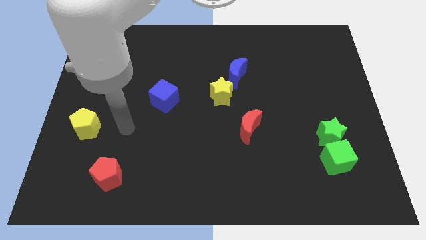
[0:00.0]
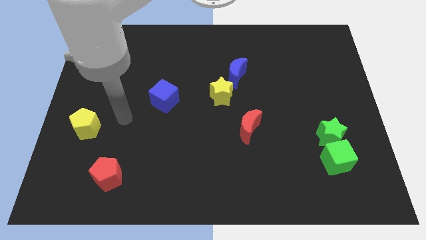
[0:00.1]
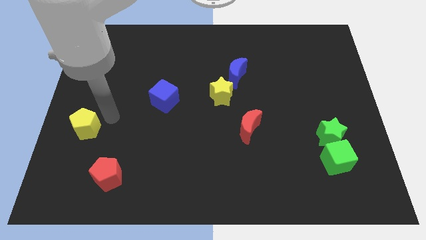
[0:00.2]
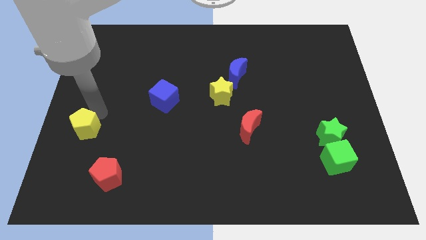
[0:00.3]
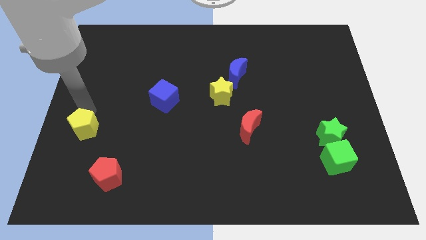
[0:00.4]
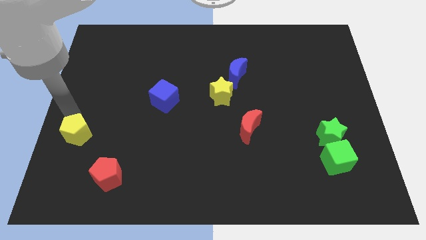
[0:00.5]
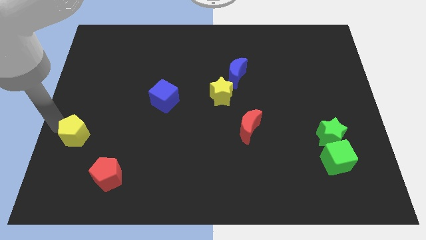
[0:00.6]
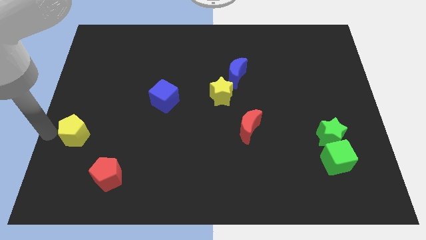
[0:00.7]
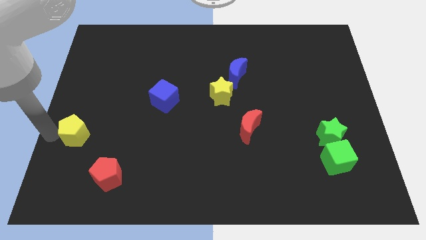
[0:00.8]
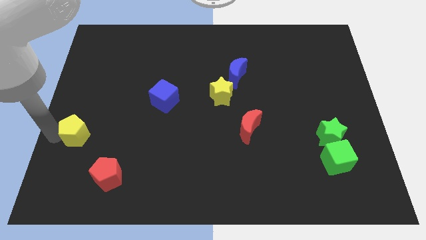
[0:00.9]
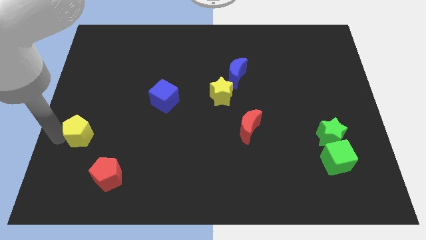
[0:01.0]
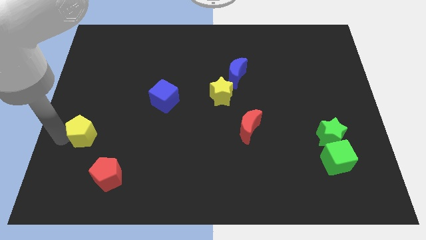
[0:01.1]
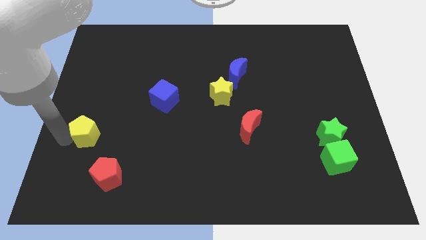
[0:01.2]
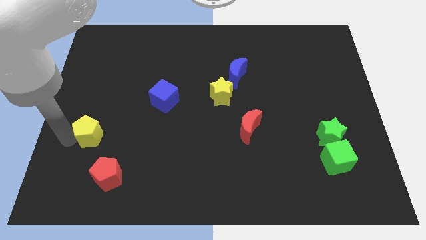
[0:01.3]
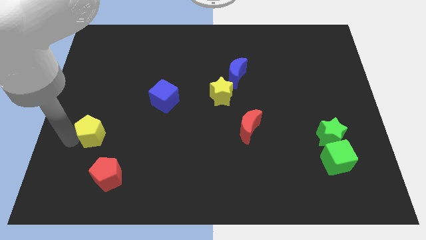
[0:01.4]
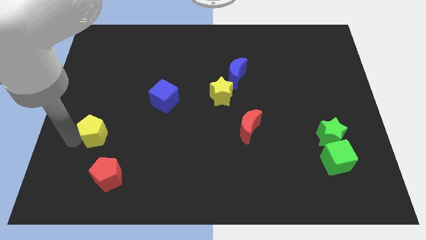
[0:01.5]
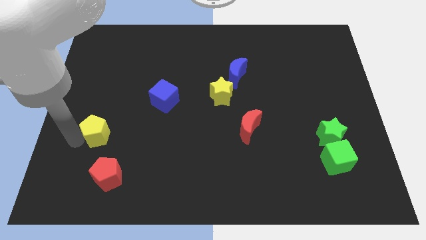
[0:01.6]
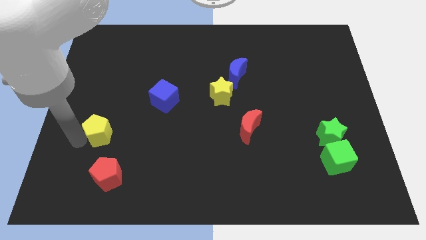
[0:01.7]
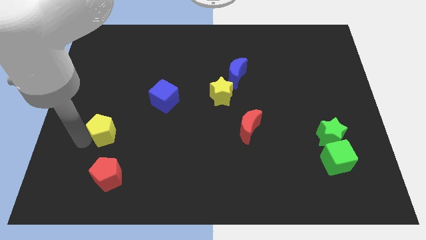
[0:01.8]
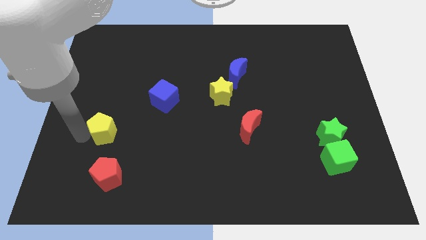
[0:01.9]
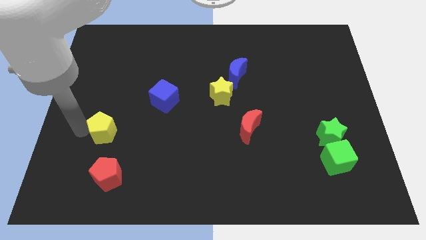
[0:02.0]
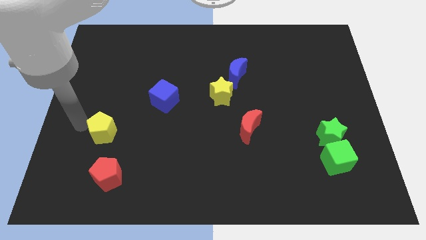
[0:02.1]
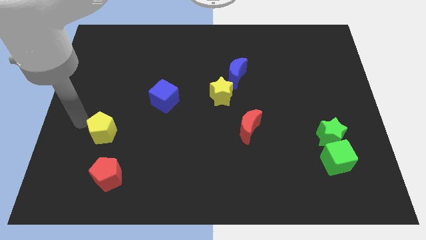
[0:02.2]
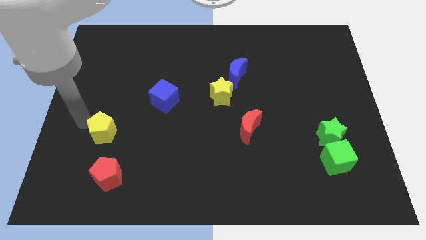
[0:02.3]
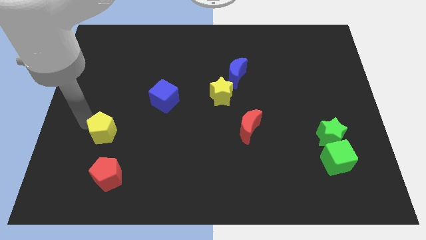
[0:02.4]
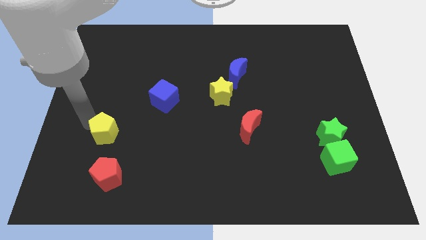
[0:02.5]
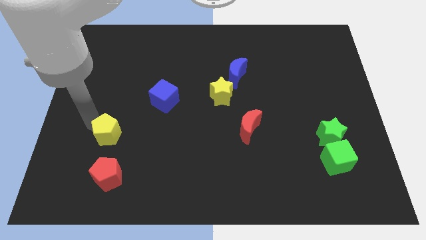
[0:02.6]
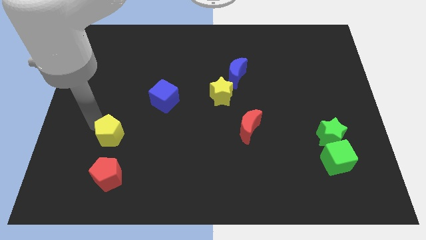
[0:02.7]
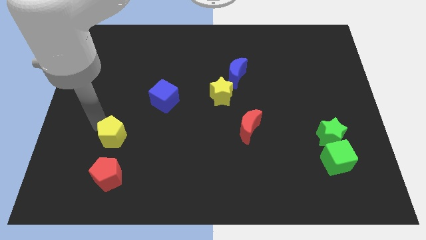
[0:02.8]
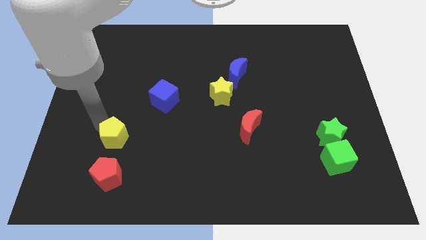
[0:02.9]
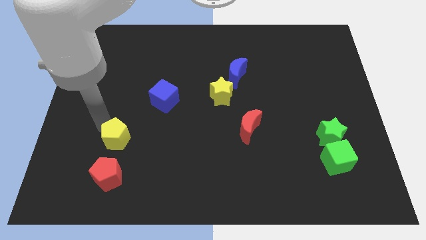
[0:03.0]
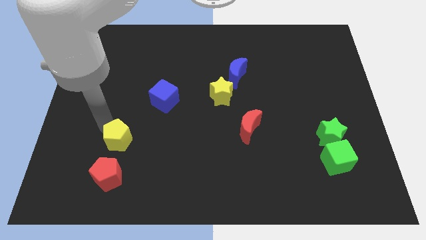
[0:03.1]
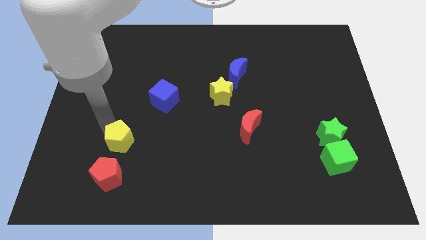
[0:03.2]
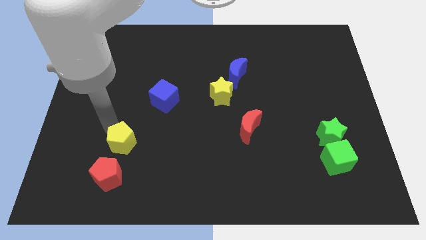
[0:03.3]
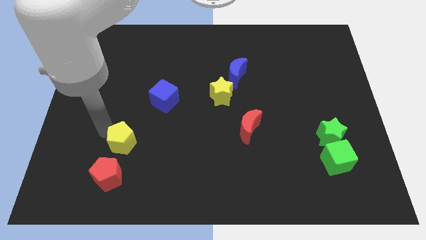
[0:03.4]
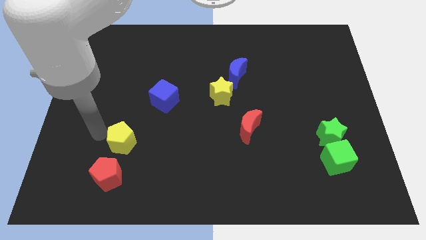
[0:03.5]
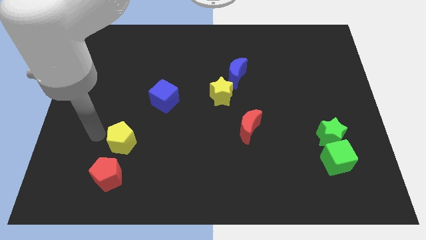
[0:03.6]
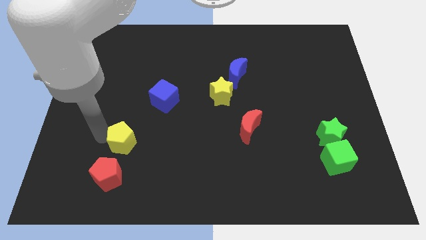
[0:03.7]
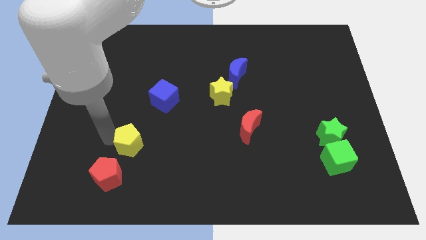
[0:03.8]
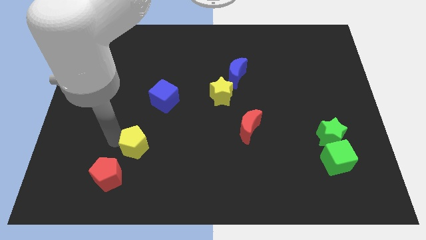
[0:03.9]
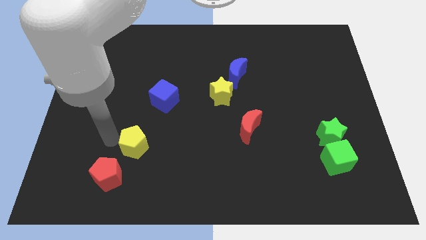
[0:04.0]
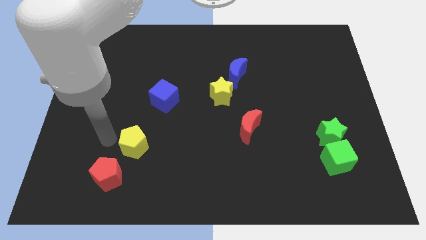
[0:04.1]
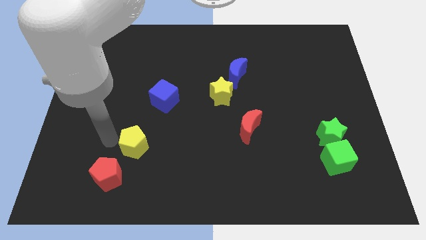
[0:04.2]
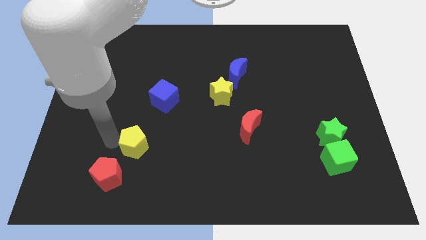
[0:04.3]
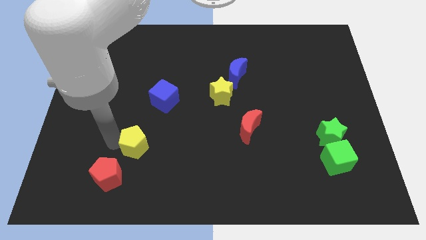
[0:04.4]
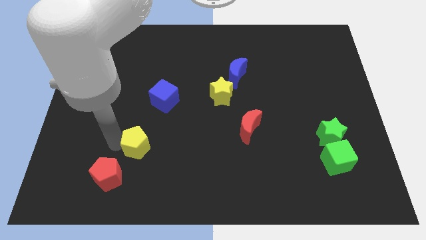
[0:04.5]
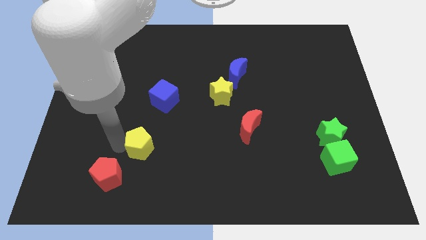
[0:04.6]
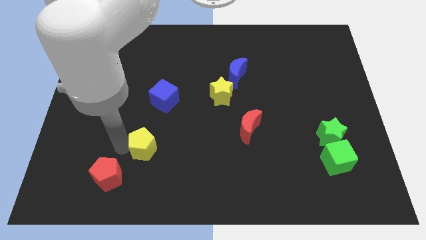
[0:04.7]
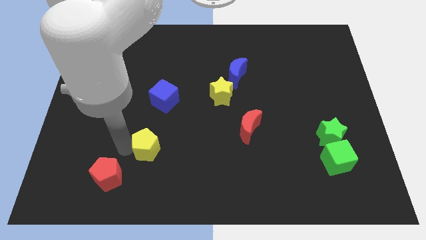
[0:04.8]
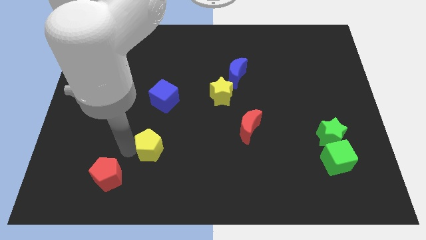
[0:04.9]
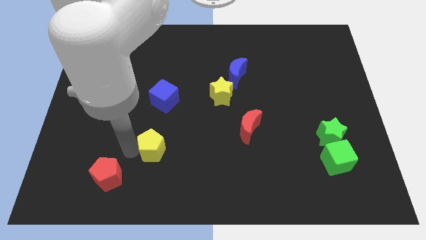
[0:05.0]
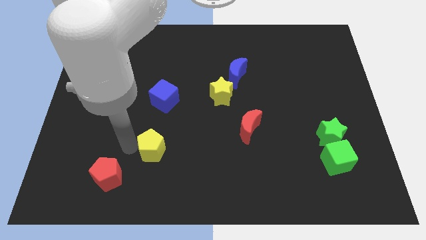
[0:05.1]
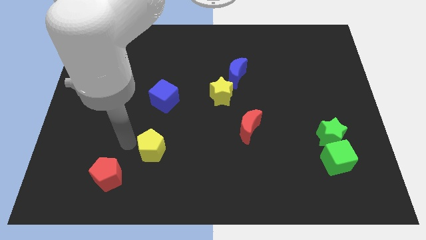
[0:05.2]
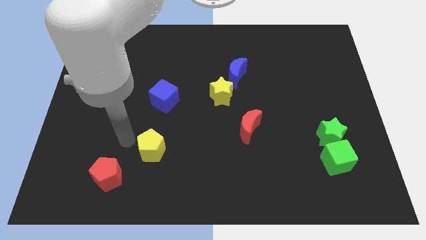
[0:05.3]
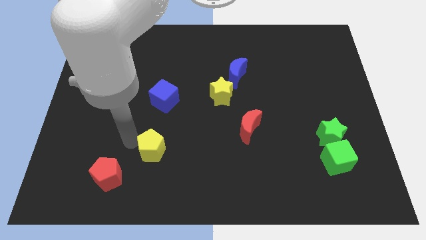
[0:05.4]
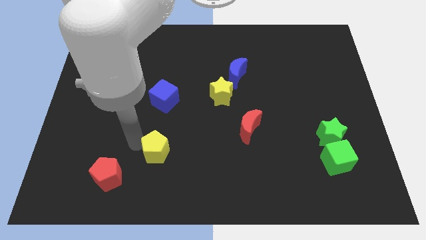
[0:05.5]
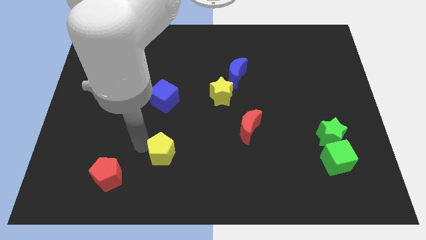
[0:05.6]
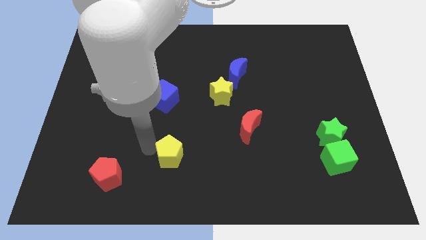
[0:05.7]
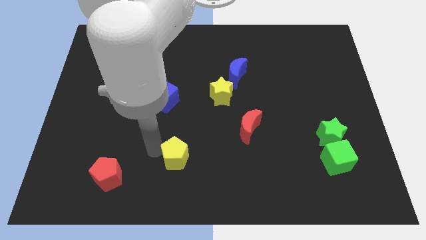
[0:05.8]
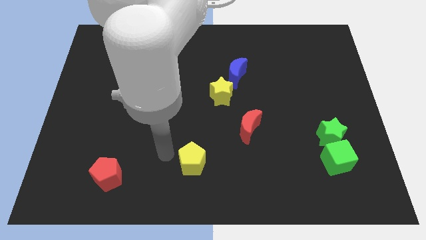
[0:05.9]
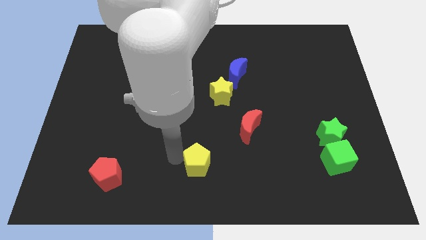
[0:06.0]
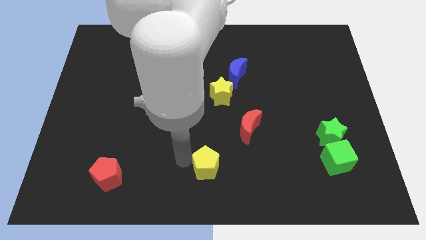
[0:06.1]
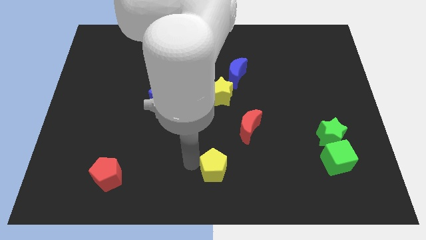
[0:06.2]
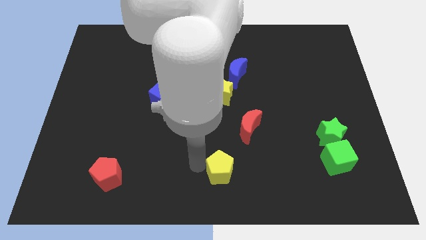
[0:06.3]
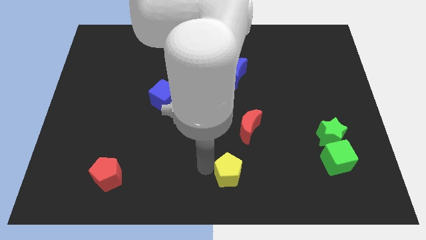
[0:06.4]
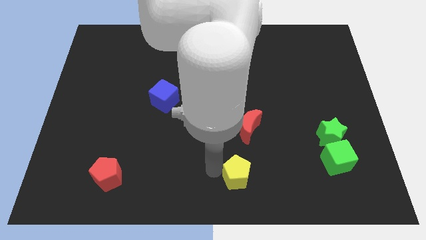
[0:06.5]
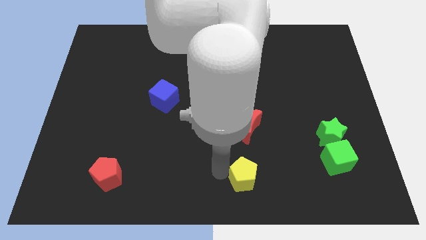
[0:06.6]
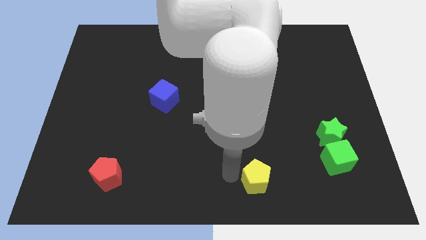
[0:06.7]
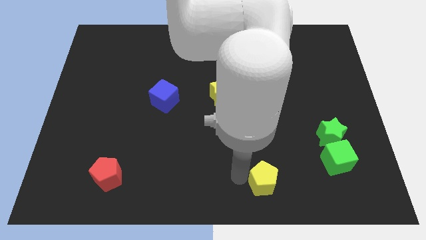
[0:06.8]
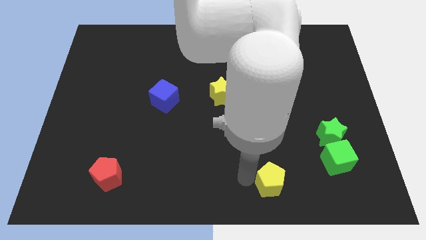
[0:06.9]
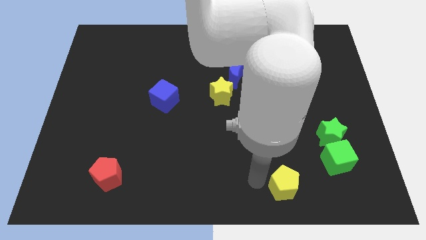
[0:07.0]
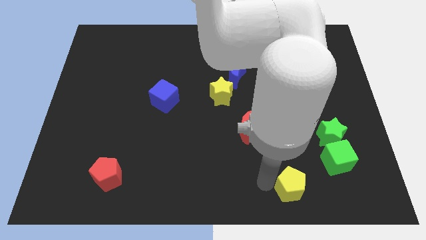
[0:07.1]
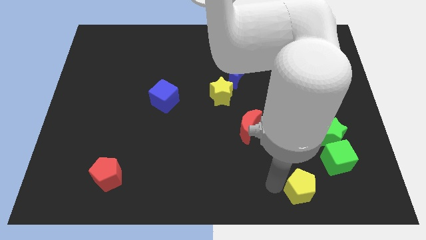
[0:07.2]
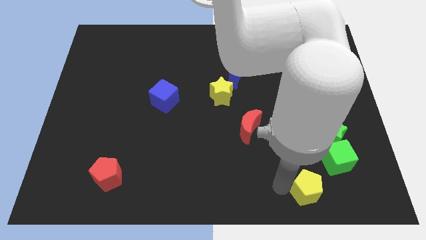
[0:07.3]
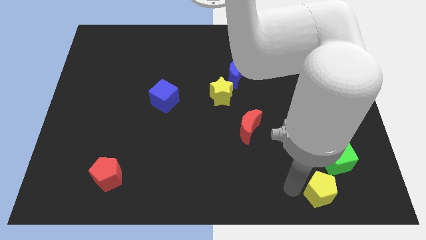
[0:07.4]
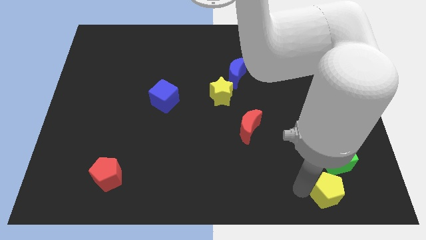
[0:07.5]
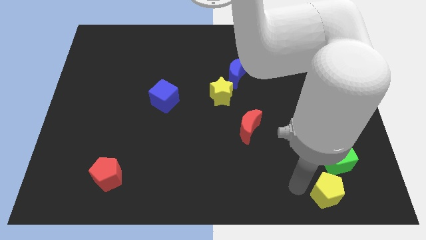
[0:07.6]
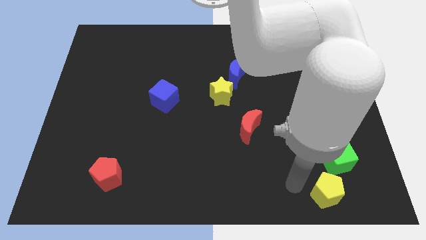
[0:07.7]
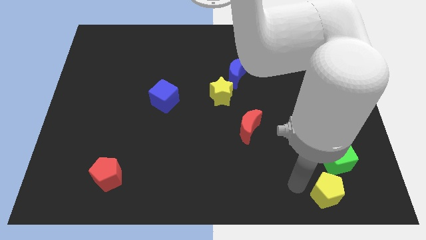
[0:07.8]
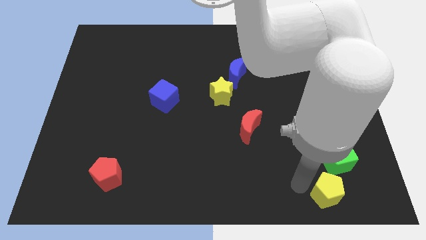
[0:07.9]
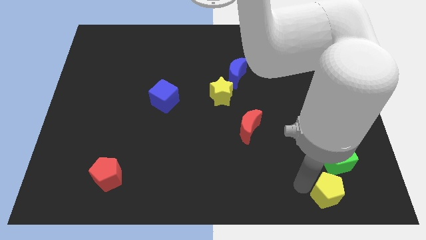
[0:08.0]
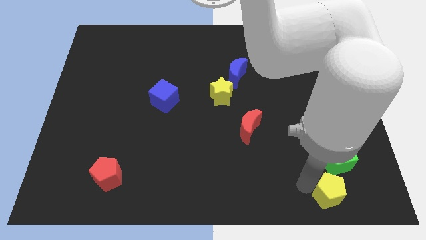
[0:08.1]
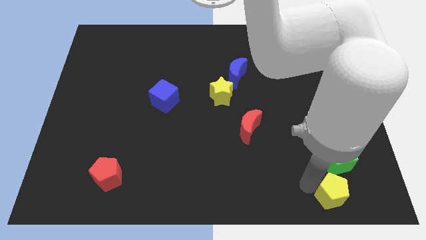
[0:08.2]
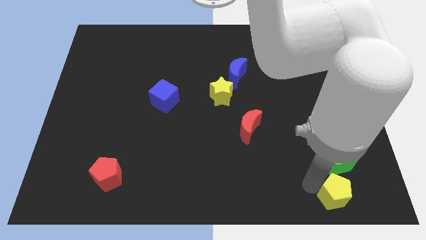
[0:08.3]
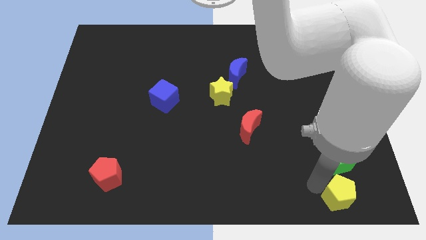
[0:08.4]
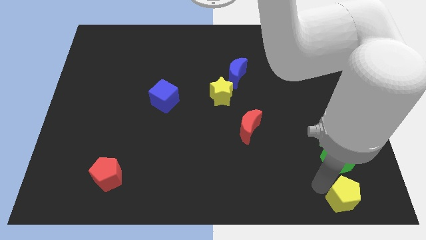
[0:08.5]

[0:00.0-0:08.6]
push the yellow pentagon to the lower right corner
